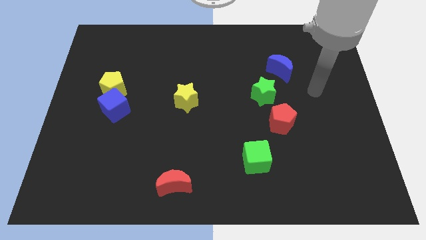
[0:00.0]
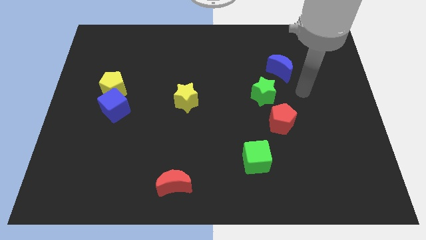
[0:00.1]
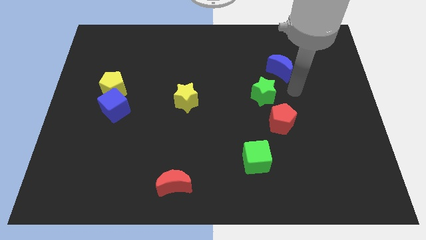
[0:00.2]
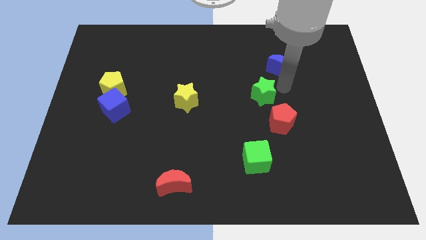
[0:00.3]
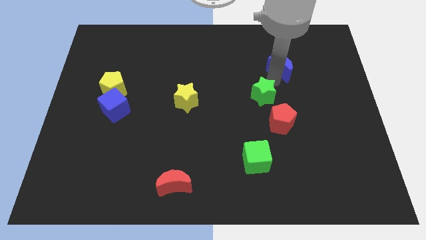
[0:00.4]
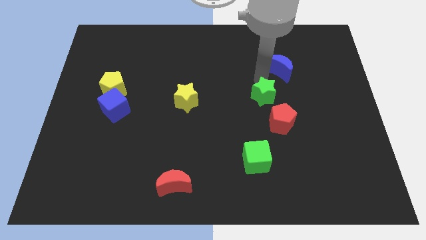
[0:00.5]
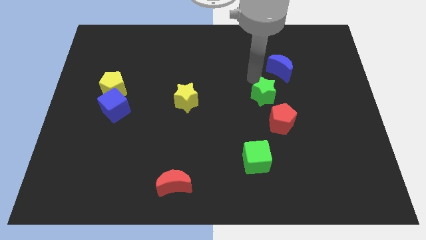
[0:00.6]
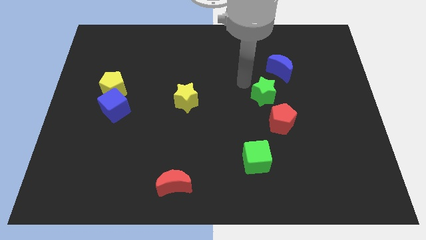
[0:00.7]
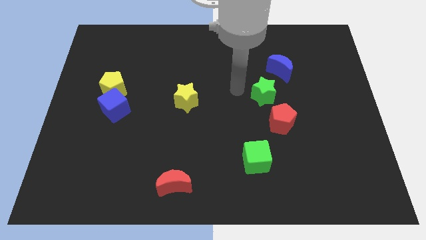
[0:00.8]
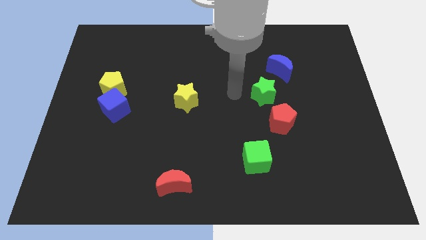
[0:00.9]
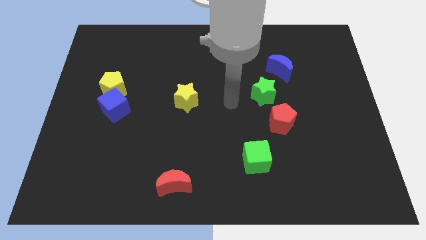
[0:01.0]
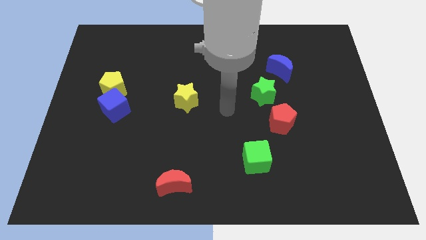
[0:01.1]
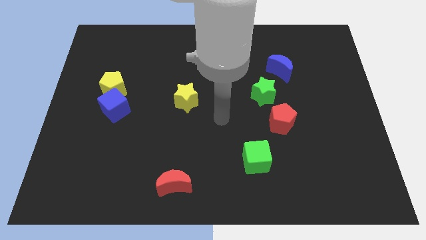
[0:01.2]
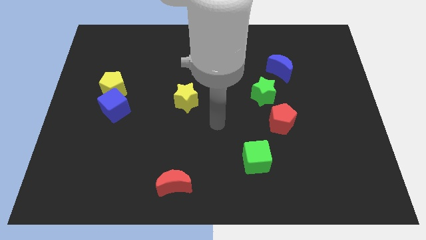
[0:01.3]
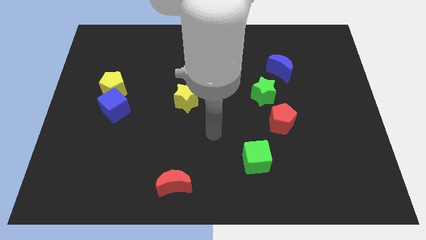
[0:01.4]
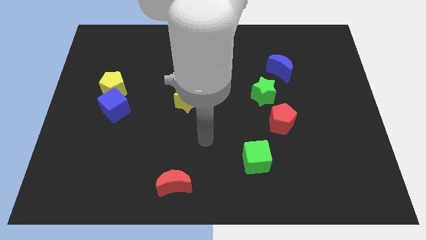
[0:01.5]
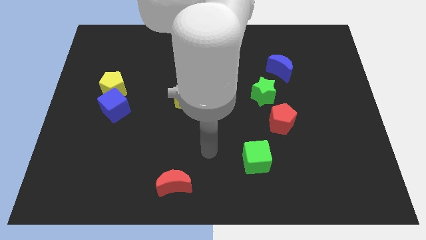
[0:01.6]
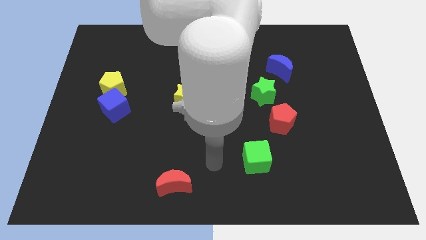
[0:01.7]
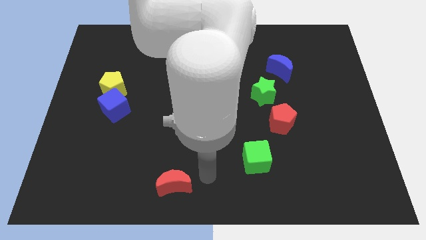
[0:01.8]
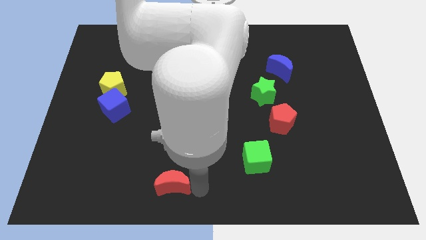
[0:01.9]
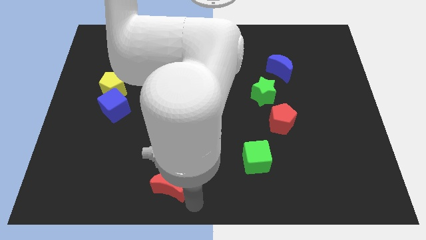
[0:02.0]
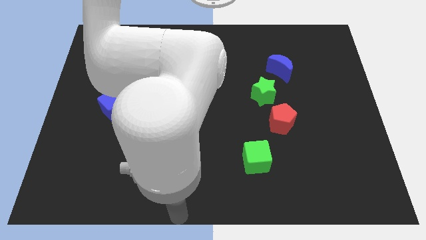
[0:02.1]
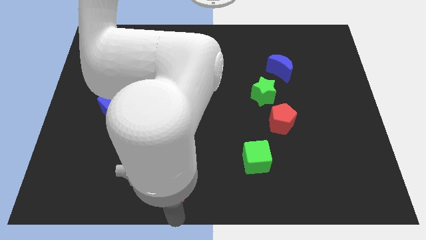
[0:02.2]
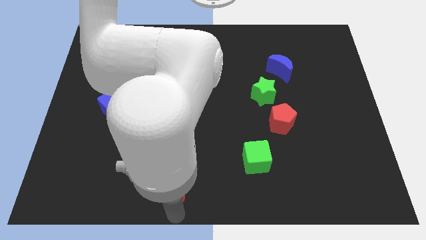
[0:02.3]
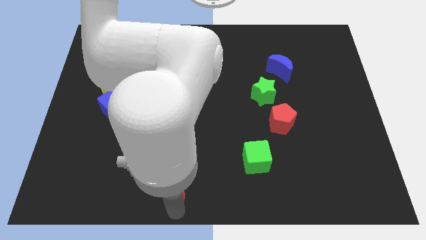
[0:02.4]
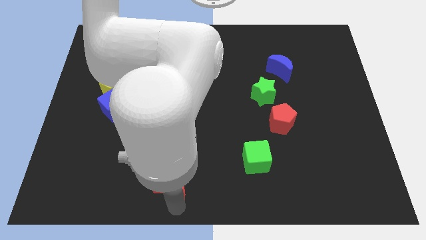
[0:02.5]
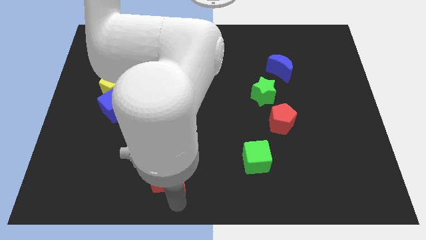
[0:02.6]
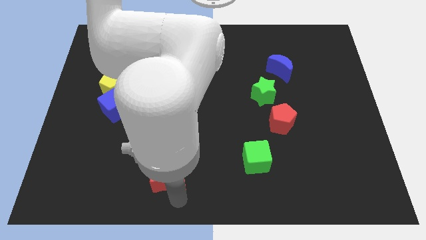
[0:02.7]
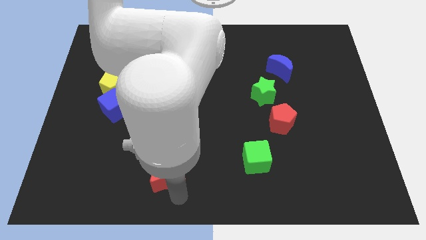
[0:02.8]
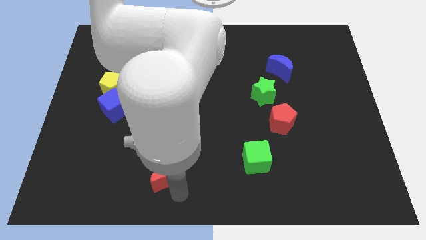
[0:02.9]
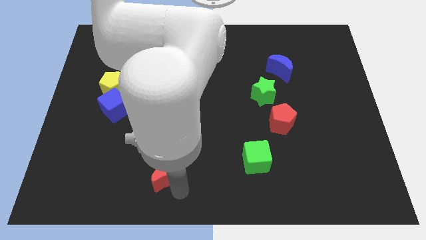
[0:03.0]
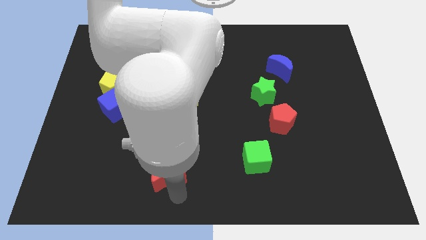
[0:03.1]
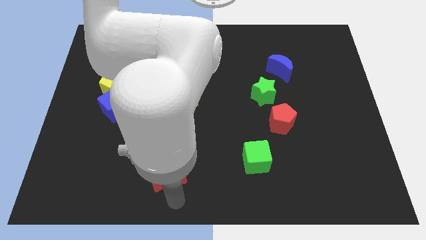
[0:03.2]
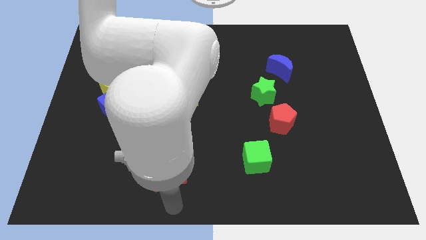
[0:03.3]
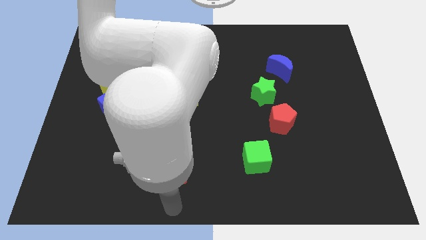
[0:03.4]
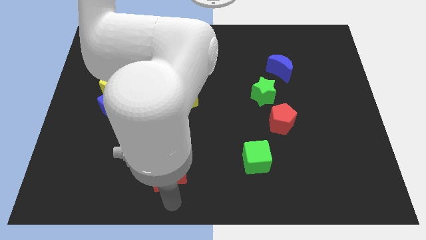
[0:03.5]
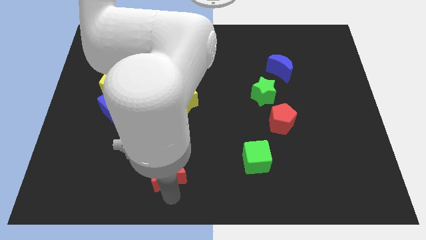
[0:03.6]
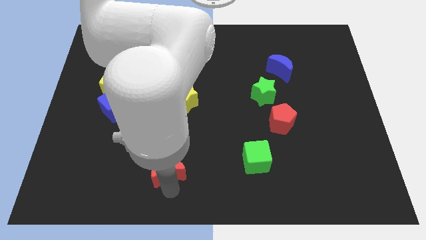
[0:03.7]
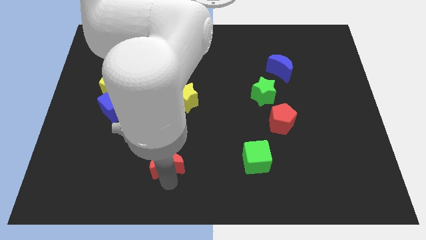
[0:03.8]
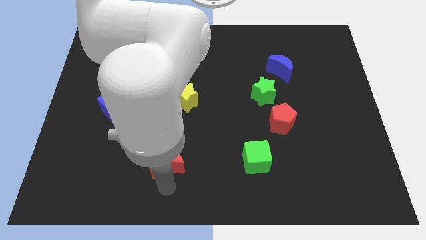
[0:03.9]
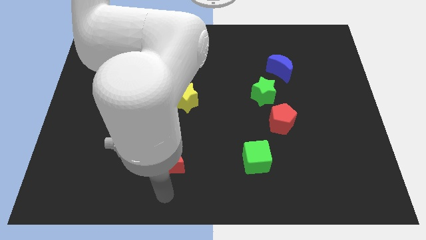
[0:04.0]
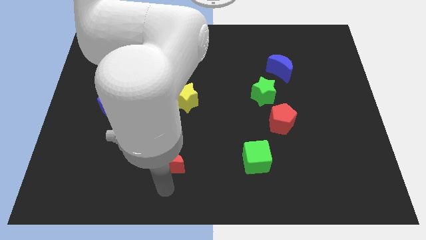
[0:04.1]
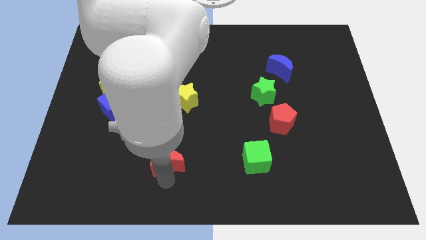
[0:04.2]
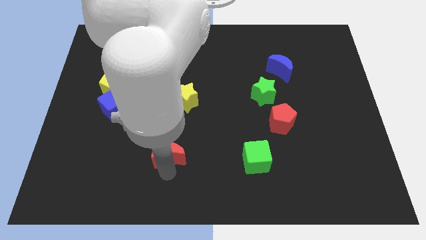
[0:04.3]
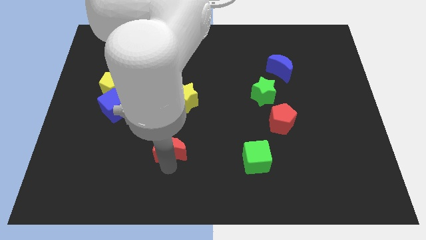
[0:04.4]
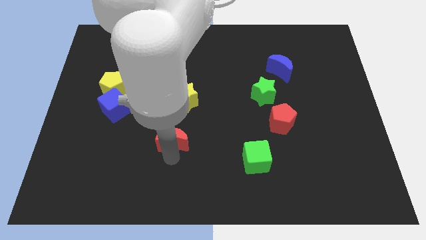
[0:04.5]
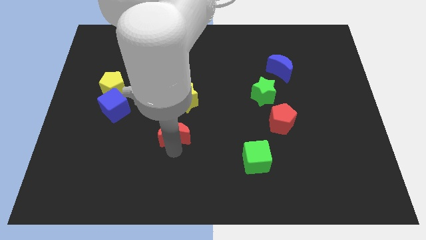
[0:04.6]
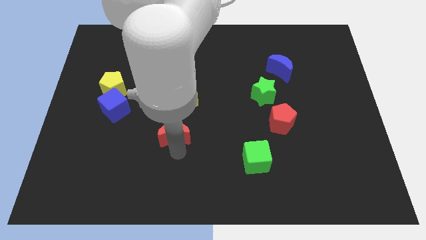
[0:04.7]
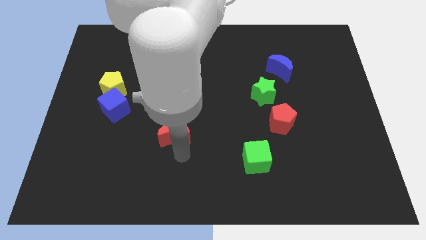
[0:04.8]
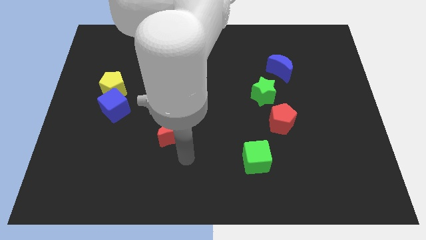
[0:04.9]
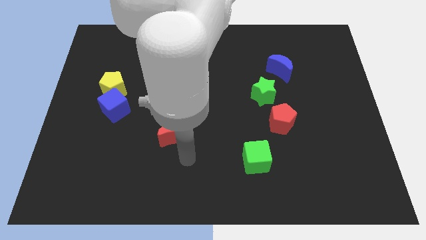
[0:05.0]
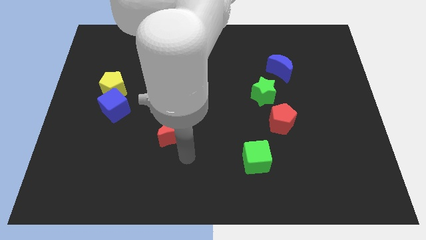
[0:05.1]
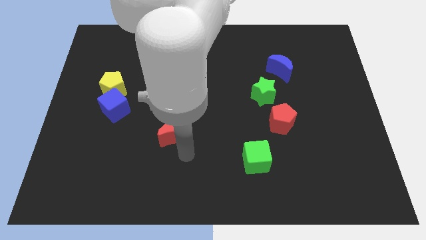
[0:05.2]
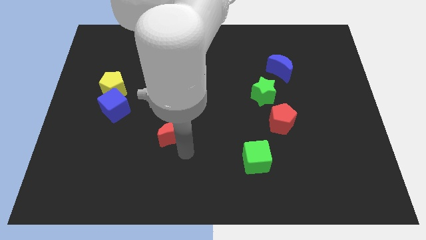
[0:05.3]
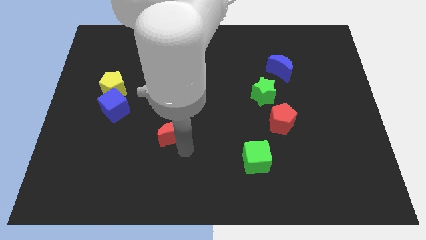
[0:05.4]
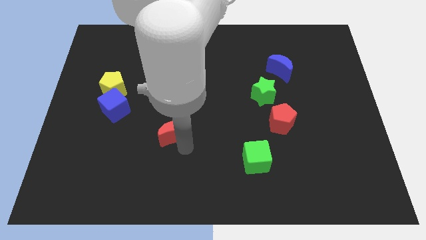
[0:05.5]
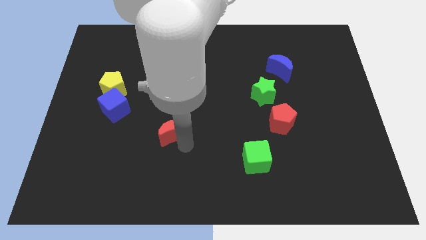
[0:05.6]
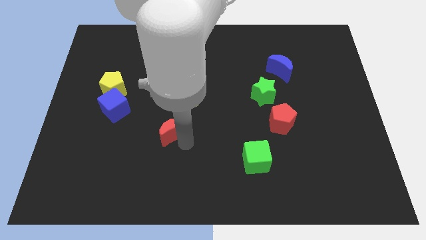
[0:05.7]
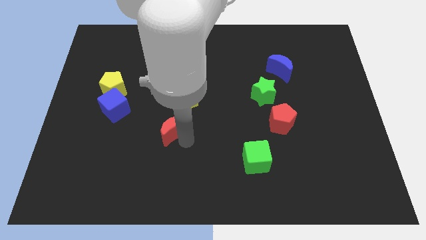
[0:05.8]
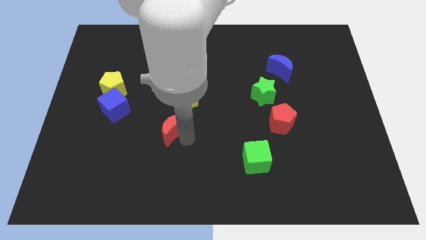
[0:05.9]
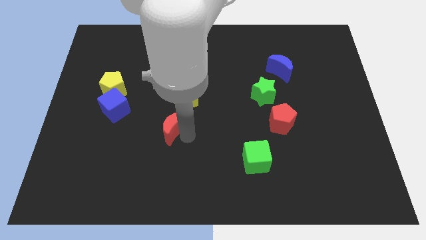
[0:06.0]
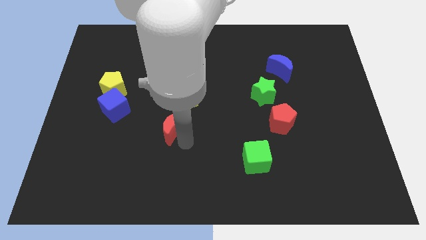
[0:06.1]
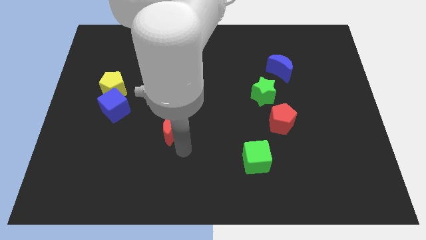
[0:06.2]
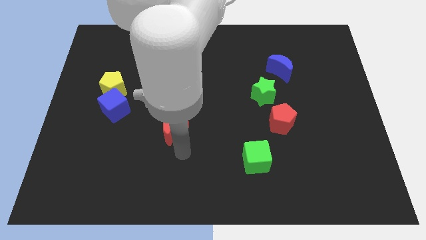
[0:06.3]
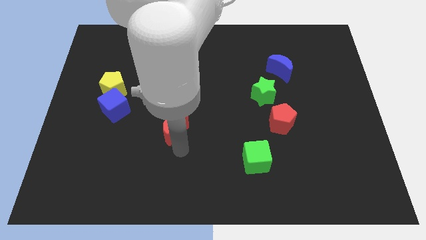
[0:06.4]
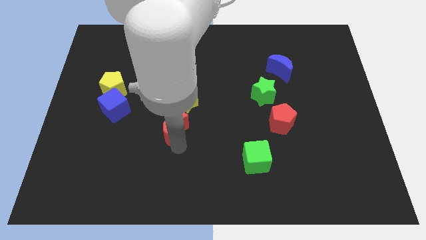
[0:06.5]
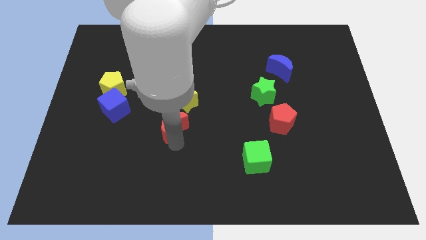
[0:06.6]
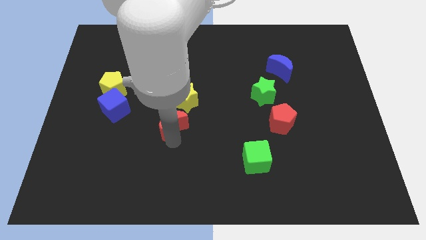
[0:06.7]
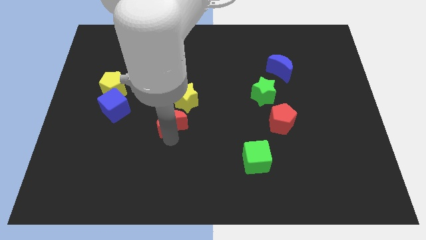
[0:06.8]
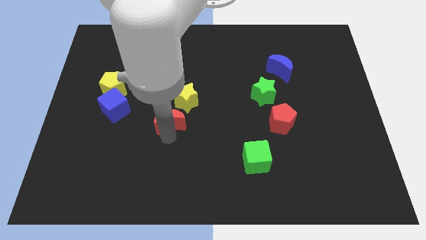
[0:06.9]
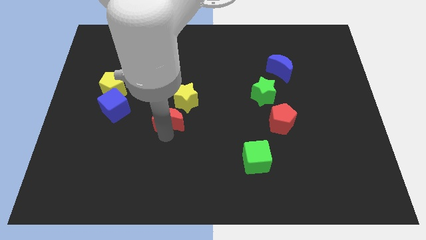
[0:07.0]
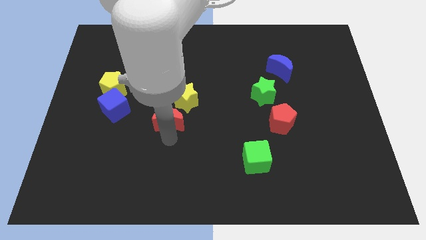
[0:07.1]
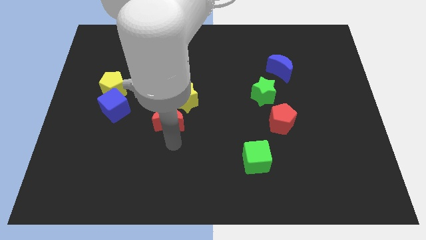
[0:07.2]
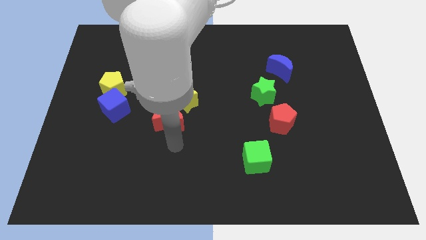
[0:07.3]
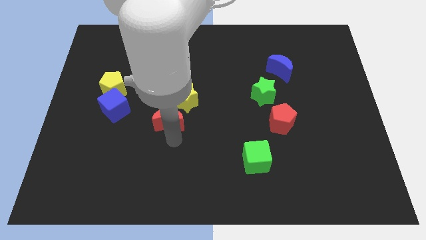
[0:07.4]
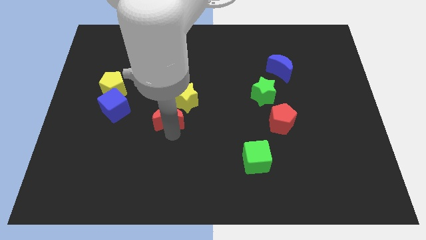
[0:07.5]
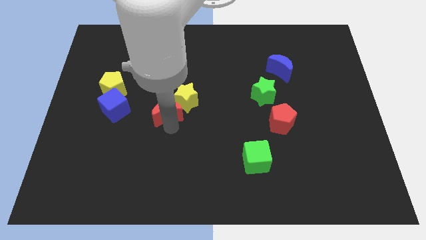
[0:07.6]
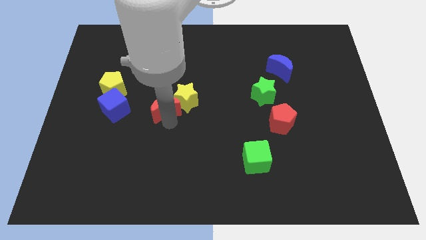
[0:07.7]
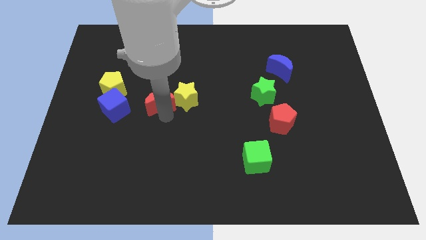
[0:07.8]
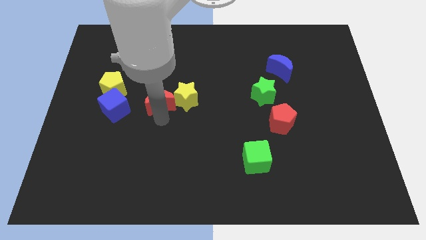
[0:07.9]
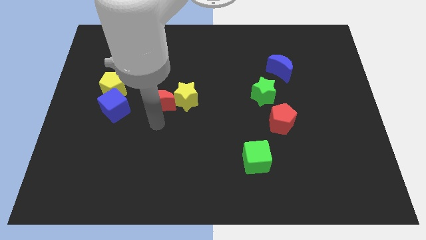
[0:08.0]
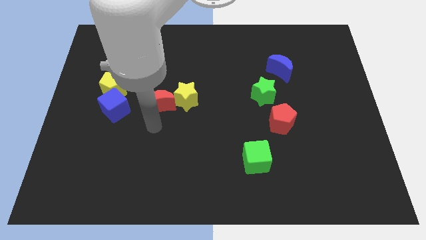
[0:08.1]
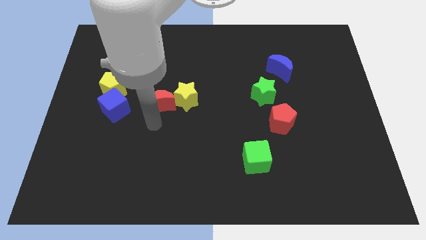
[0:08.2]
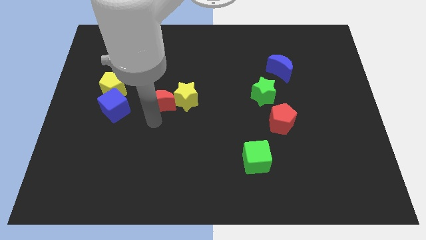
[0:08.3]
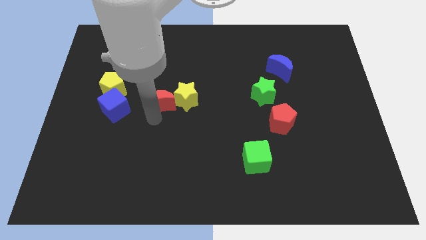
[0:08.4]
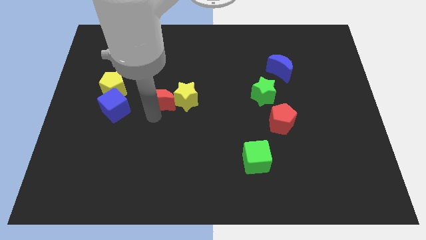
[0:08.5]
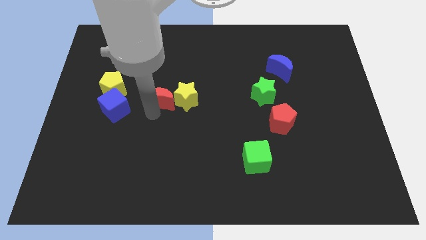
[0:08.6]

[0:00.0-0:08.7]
push the red moon diagonally up and to the left of the yellow star
